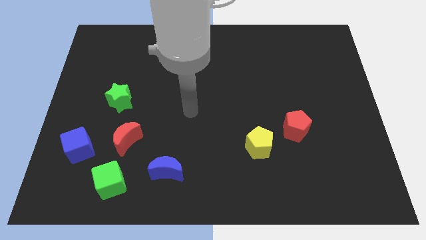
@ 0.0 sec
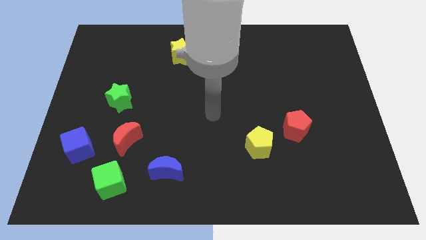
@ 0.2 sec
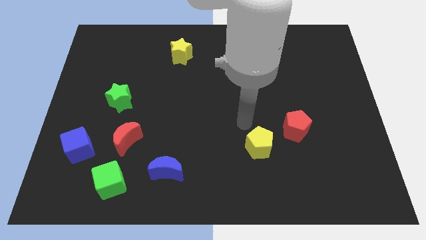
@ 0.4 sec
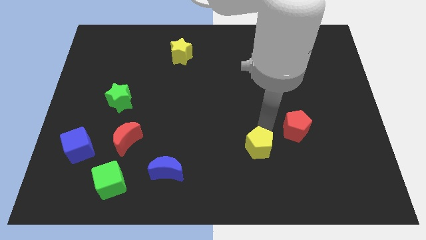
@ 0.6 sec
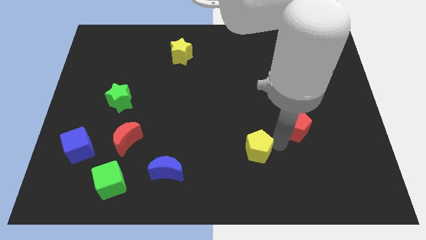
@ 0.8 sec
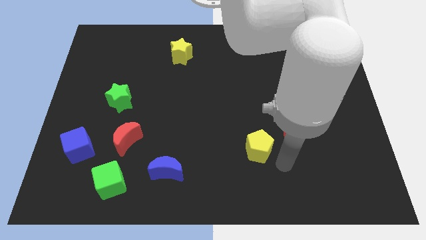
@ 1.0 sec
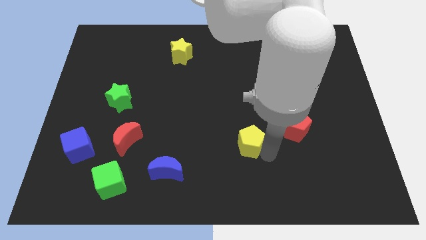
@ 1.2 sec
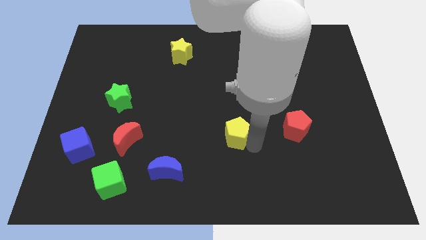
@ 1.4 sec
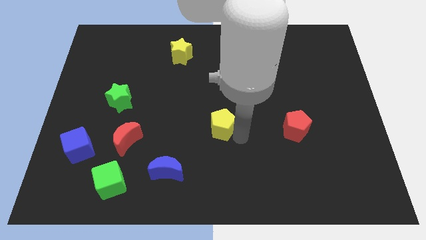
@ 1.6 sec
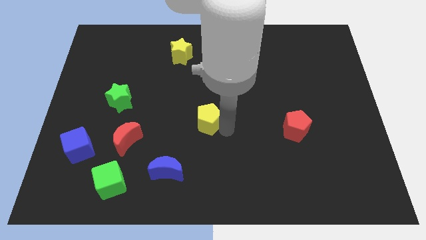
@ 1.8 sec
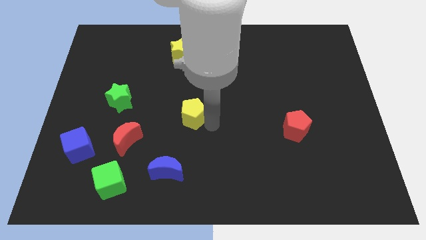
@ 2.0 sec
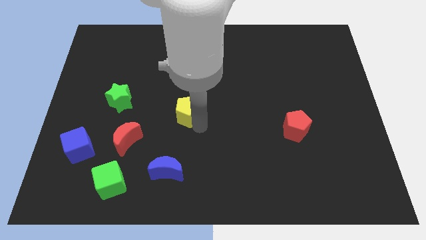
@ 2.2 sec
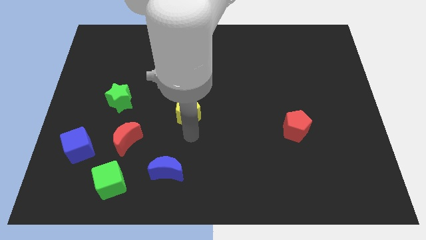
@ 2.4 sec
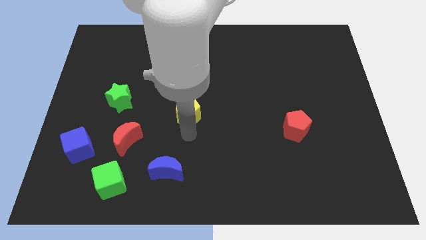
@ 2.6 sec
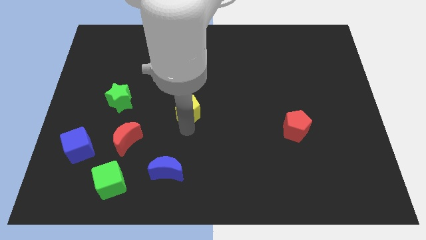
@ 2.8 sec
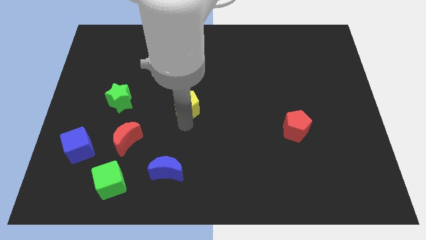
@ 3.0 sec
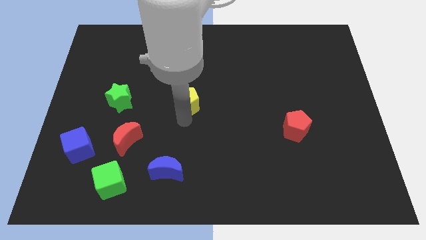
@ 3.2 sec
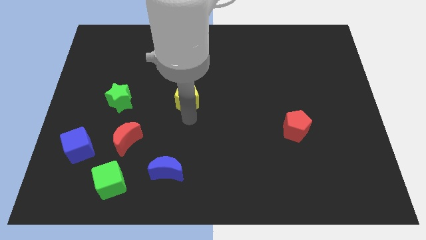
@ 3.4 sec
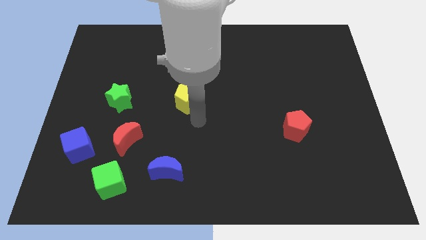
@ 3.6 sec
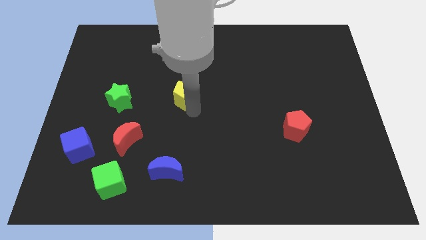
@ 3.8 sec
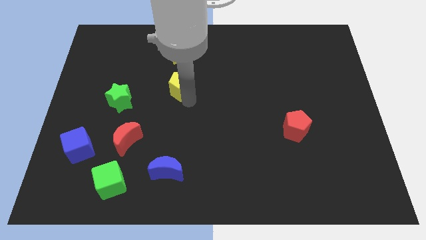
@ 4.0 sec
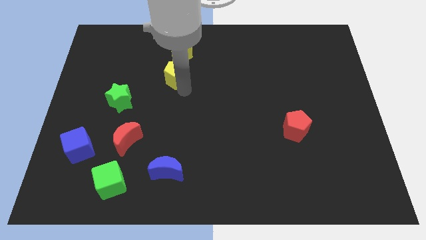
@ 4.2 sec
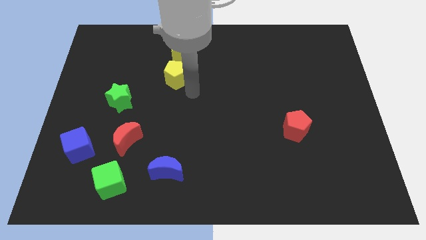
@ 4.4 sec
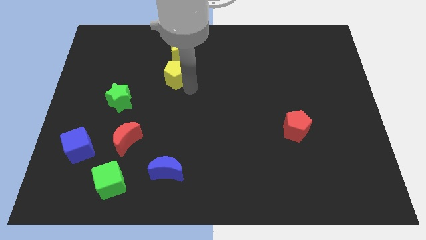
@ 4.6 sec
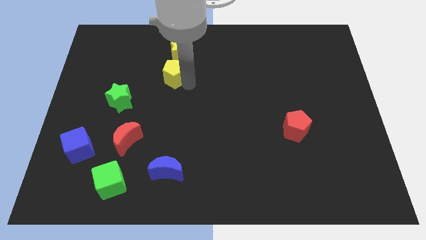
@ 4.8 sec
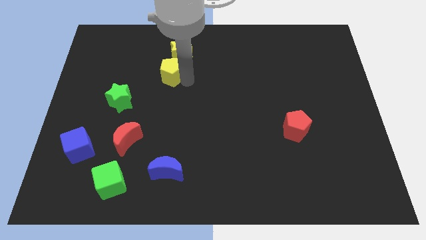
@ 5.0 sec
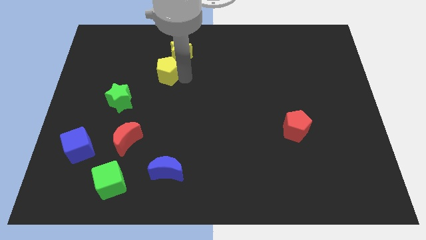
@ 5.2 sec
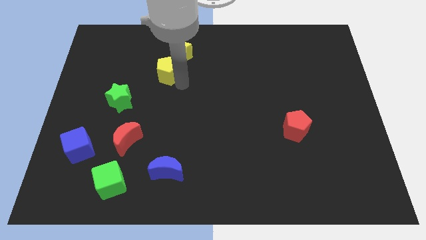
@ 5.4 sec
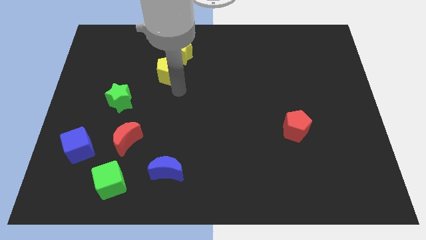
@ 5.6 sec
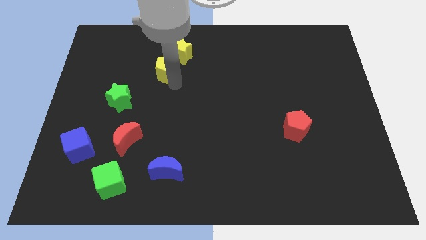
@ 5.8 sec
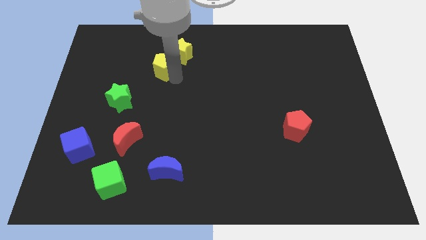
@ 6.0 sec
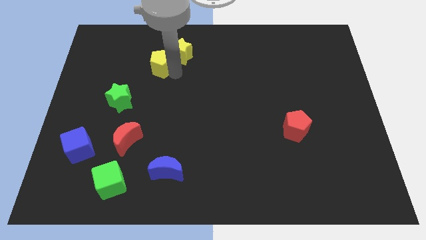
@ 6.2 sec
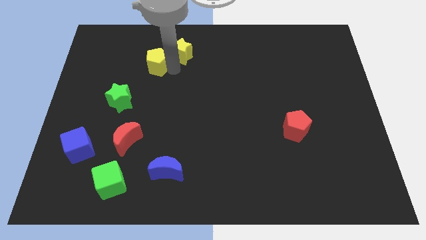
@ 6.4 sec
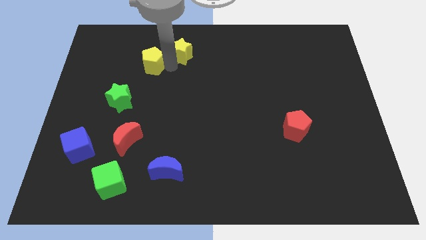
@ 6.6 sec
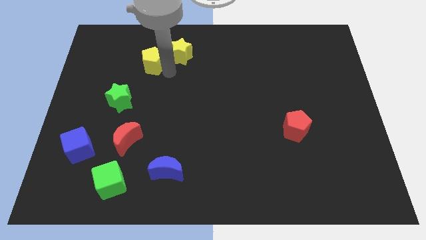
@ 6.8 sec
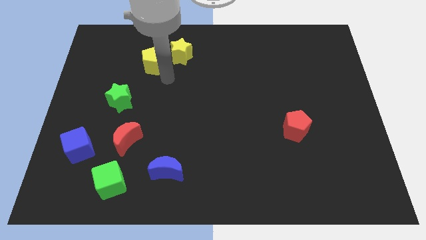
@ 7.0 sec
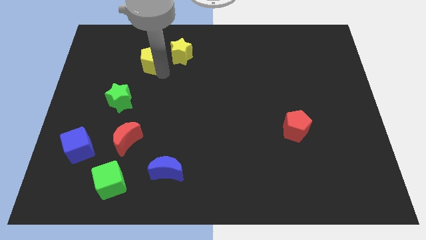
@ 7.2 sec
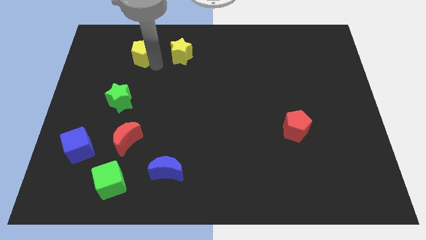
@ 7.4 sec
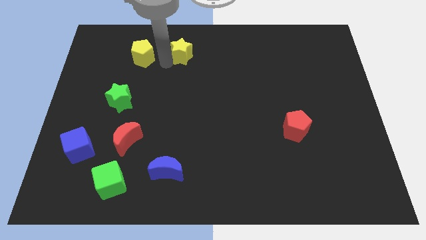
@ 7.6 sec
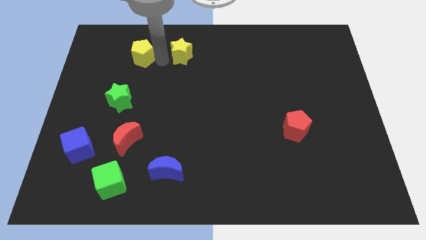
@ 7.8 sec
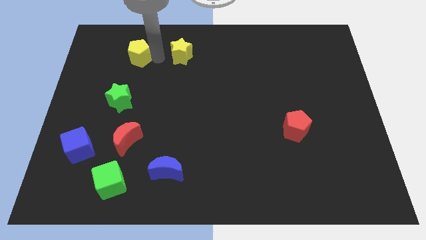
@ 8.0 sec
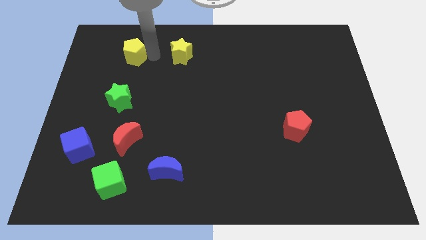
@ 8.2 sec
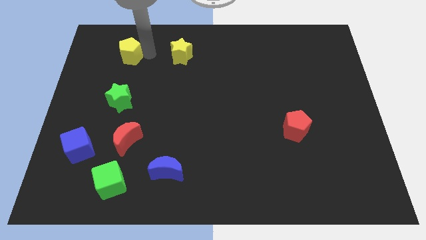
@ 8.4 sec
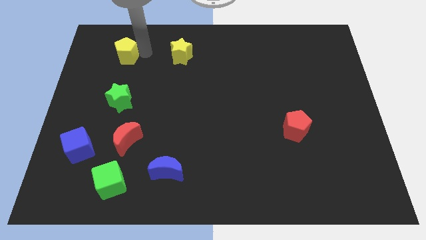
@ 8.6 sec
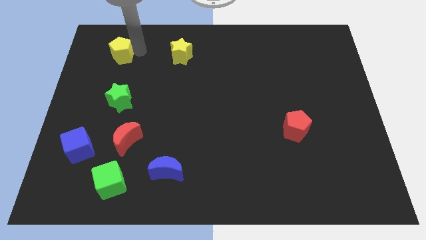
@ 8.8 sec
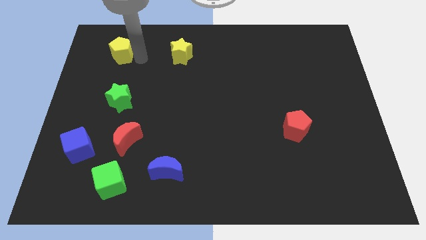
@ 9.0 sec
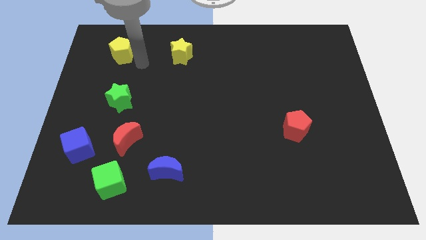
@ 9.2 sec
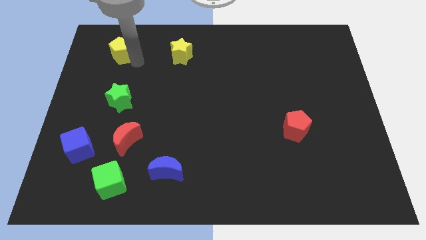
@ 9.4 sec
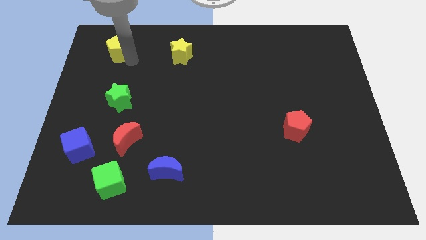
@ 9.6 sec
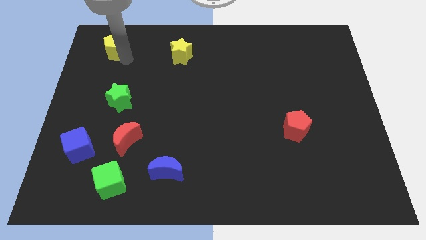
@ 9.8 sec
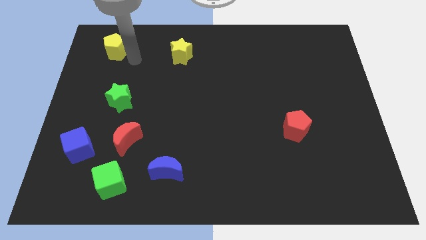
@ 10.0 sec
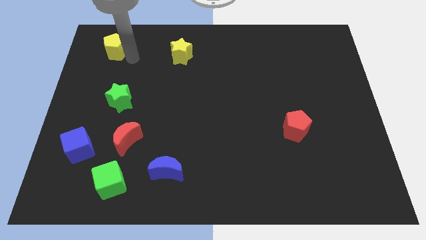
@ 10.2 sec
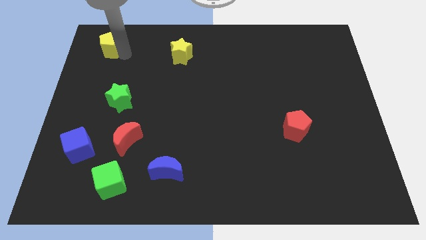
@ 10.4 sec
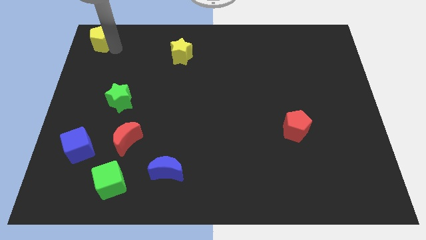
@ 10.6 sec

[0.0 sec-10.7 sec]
push the yellow pentagon to the upper left corner

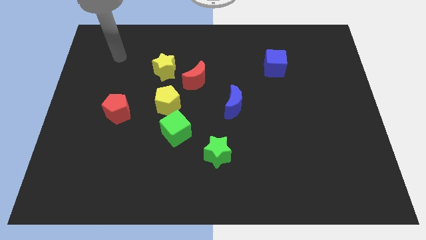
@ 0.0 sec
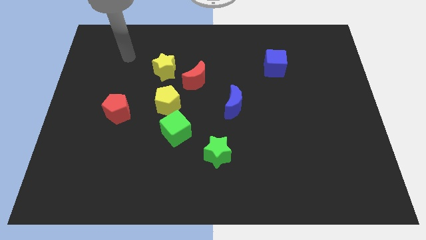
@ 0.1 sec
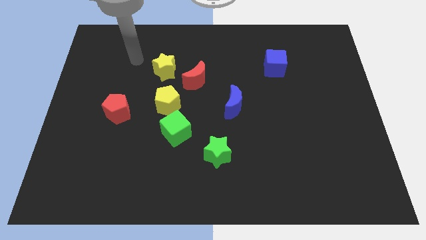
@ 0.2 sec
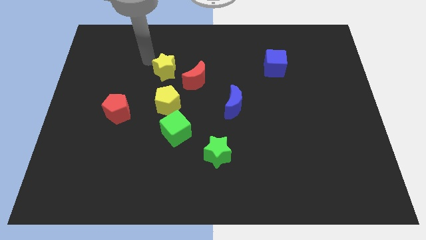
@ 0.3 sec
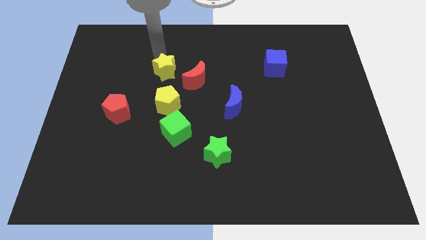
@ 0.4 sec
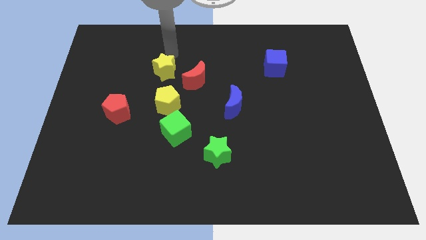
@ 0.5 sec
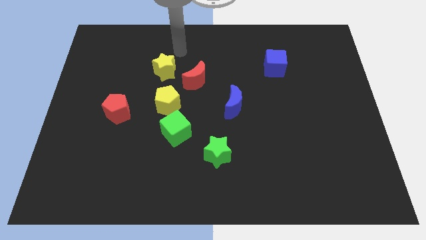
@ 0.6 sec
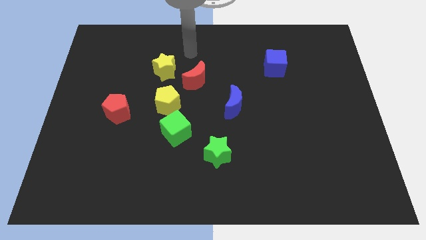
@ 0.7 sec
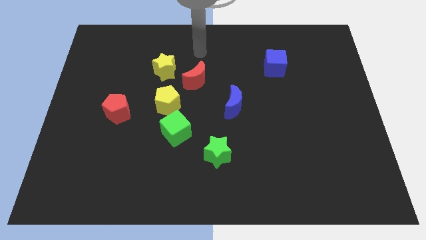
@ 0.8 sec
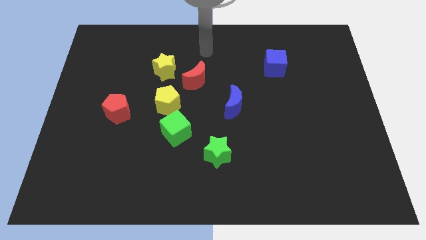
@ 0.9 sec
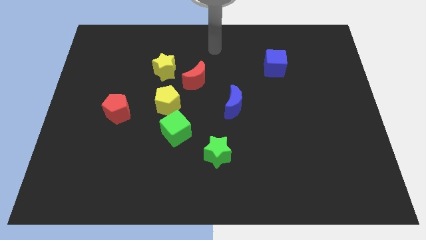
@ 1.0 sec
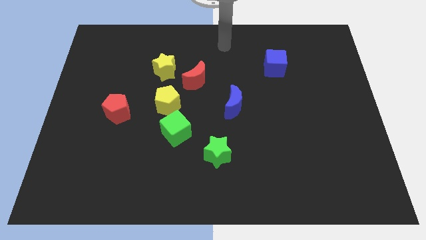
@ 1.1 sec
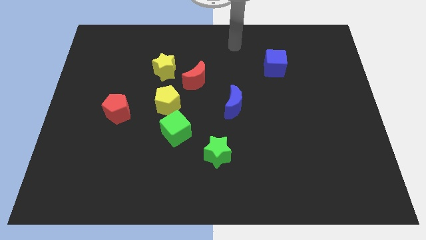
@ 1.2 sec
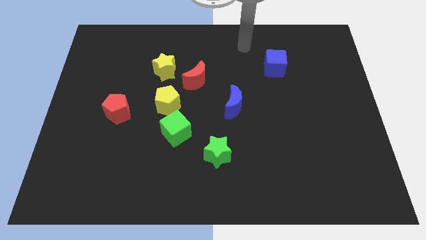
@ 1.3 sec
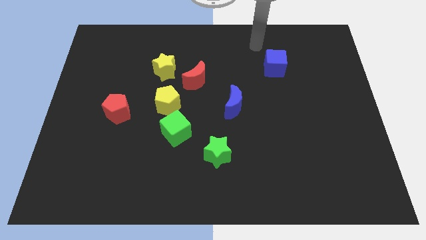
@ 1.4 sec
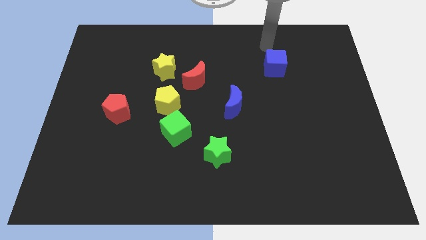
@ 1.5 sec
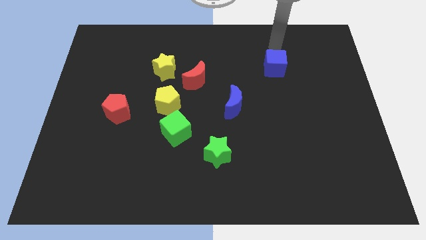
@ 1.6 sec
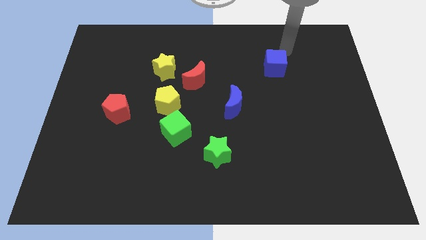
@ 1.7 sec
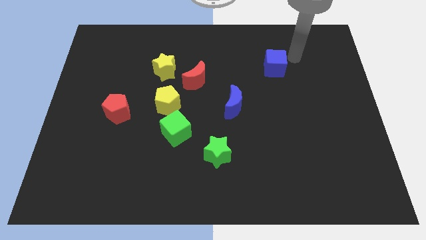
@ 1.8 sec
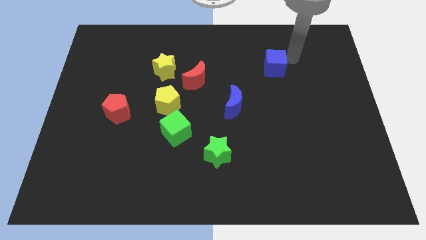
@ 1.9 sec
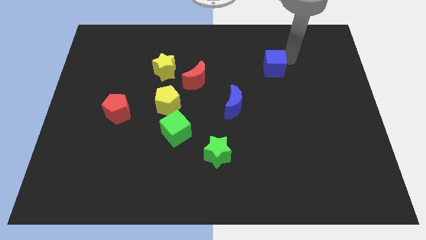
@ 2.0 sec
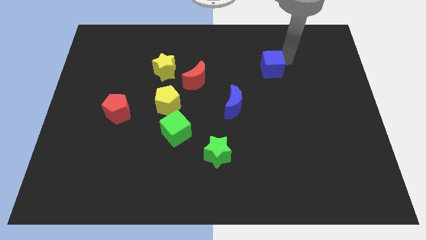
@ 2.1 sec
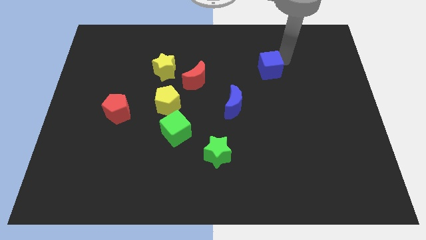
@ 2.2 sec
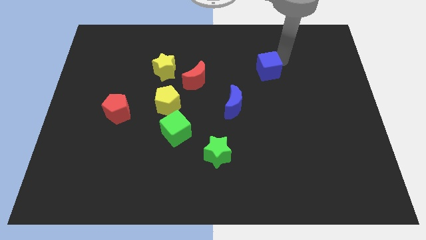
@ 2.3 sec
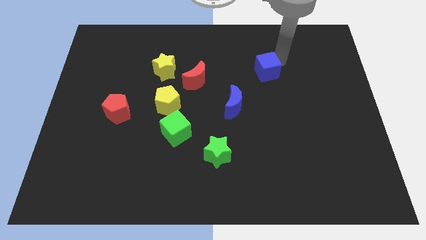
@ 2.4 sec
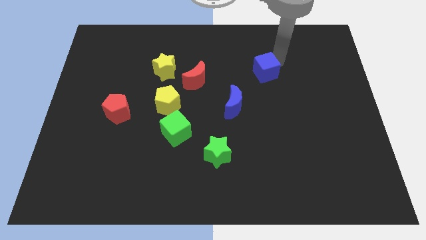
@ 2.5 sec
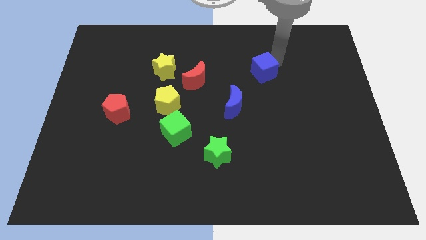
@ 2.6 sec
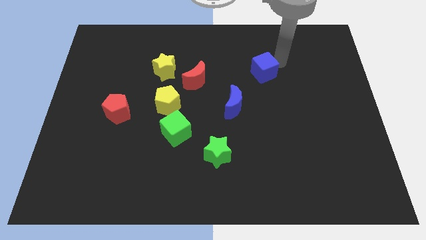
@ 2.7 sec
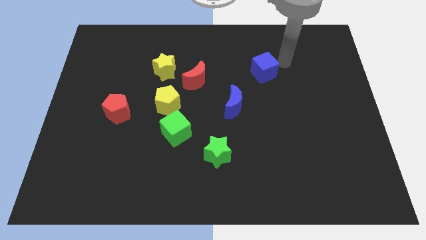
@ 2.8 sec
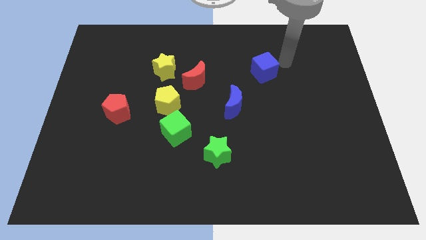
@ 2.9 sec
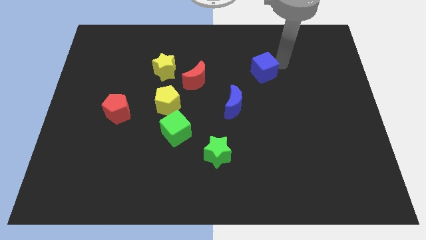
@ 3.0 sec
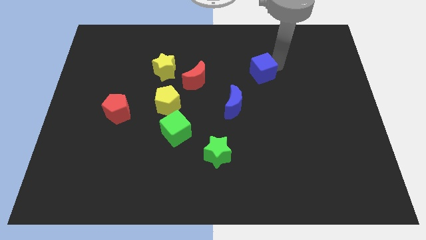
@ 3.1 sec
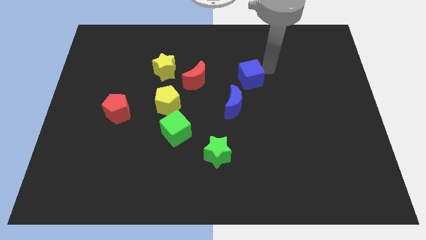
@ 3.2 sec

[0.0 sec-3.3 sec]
push the blue cube to the center of the board
